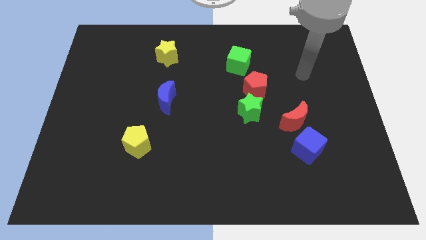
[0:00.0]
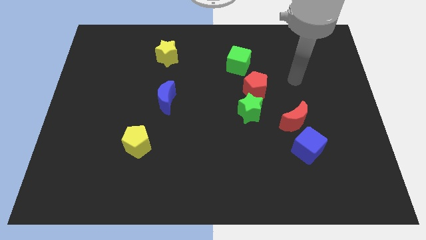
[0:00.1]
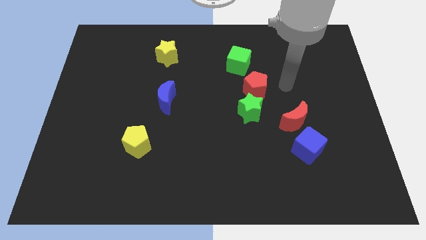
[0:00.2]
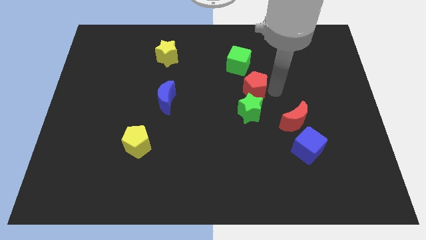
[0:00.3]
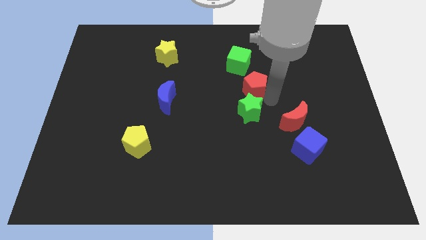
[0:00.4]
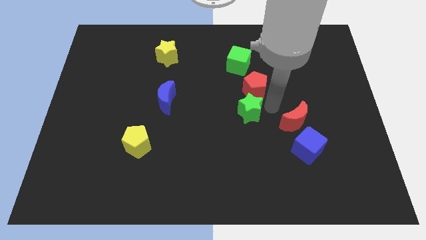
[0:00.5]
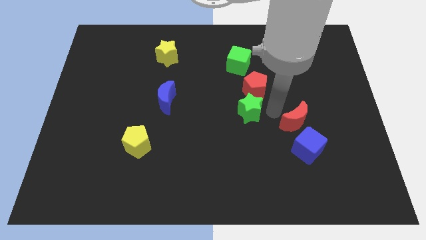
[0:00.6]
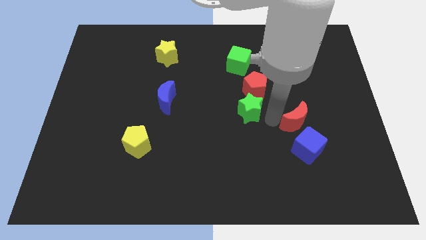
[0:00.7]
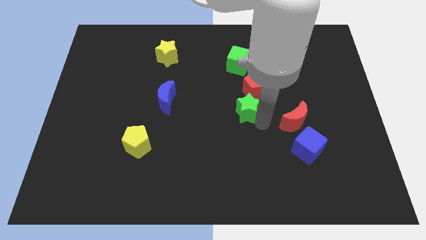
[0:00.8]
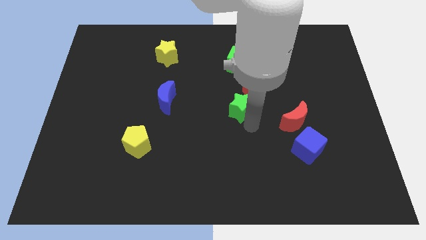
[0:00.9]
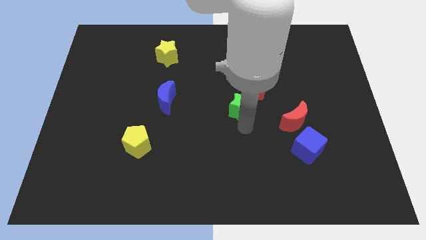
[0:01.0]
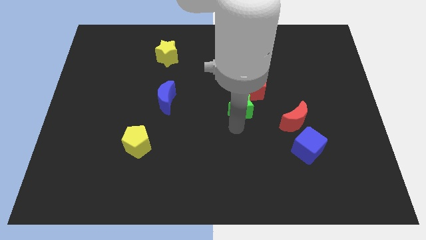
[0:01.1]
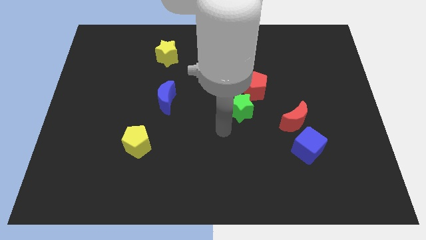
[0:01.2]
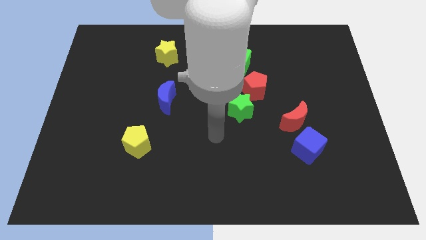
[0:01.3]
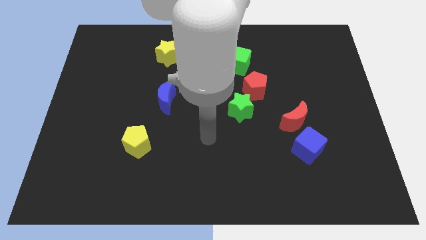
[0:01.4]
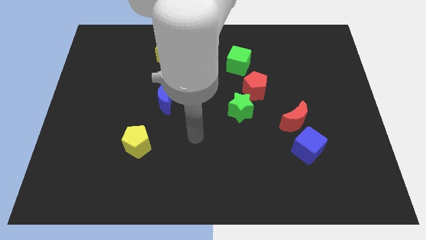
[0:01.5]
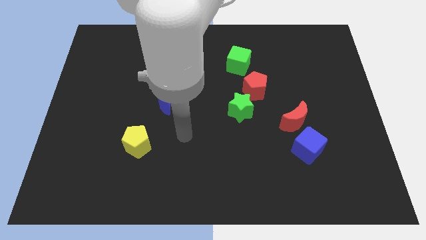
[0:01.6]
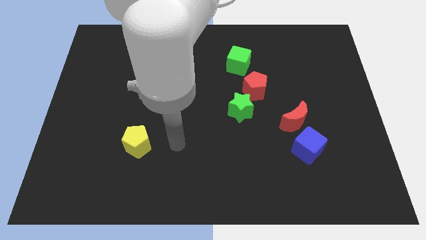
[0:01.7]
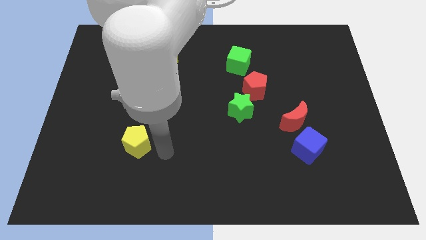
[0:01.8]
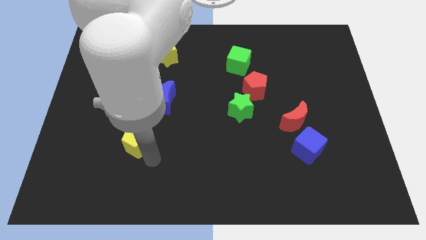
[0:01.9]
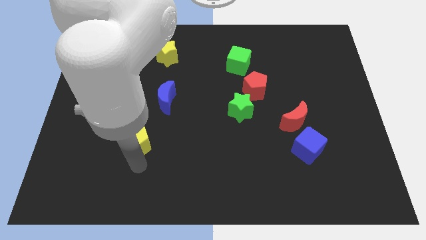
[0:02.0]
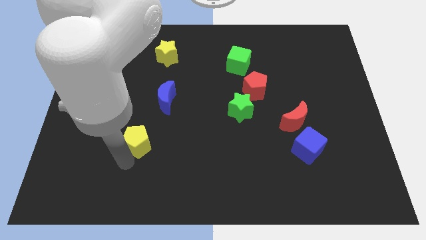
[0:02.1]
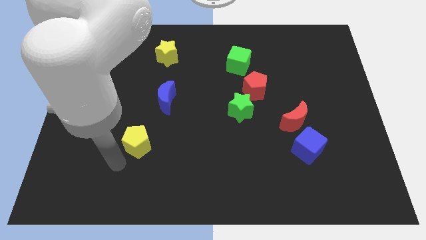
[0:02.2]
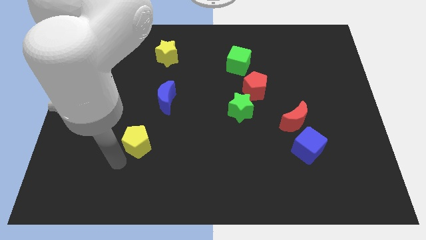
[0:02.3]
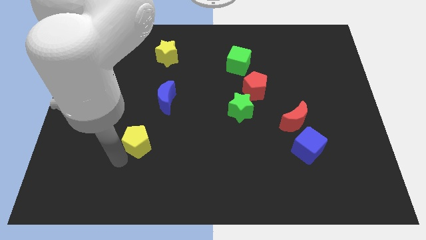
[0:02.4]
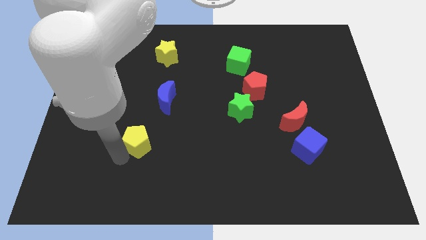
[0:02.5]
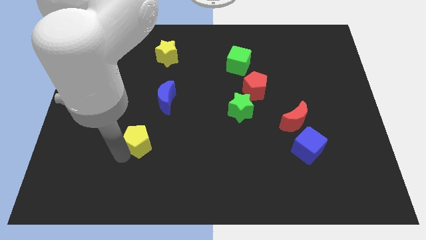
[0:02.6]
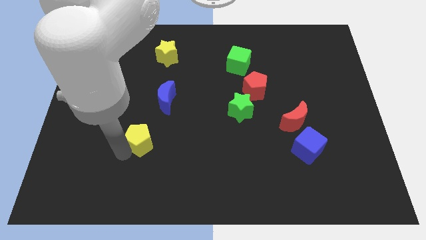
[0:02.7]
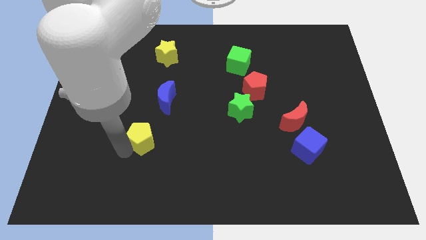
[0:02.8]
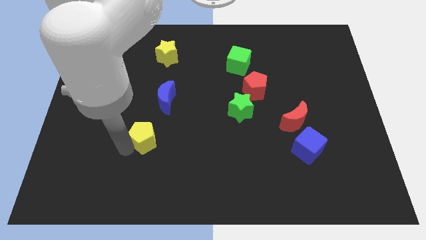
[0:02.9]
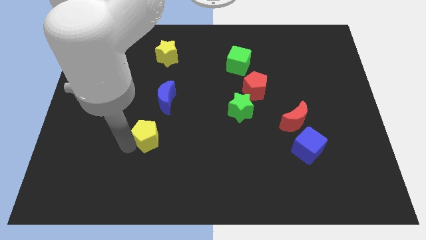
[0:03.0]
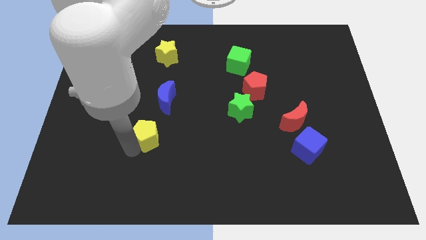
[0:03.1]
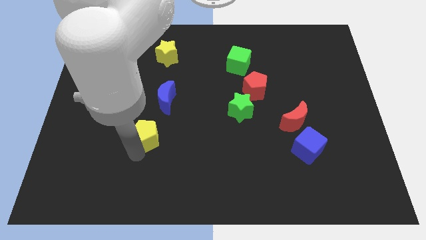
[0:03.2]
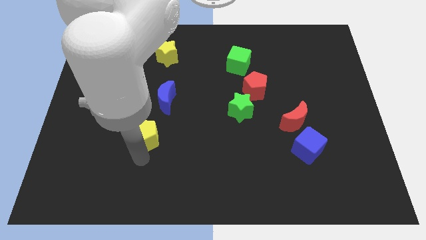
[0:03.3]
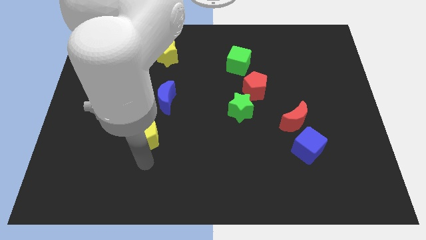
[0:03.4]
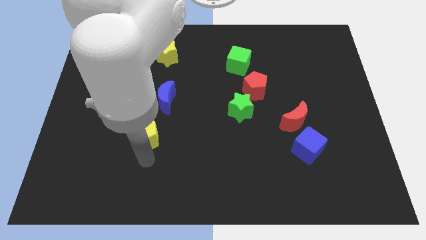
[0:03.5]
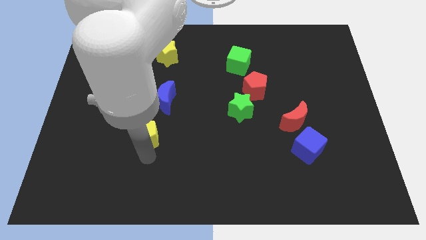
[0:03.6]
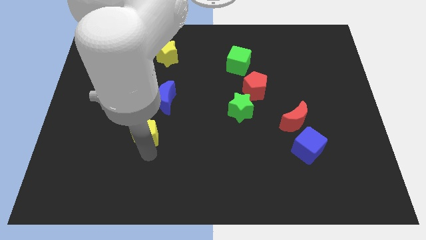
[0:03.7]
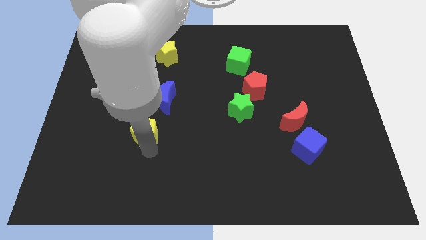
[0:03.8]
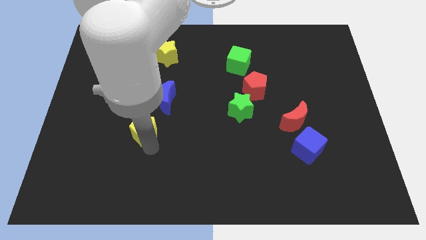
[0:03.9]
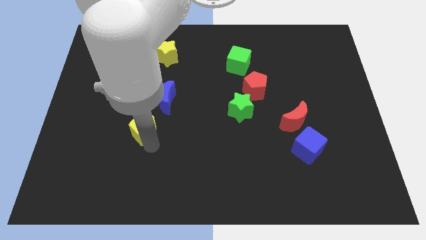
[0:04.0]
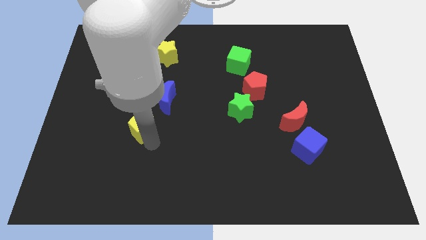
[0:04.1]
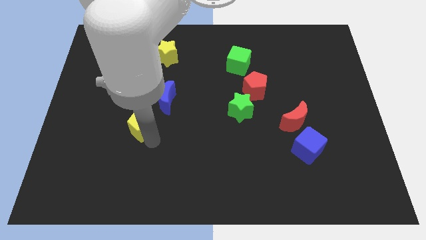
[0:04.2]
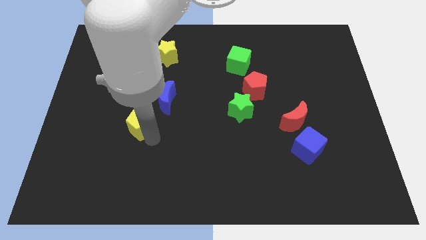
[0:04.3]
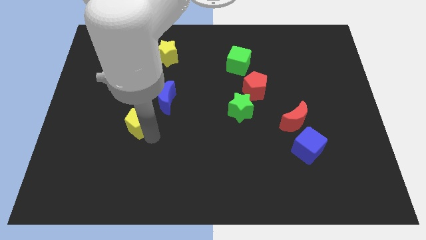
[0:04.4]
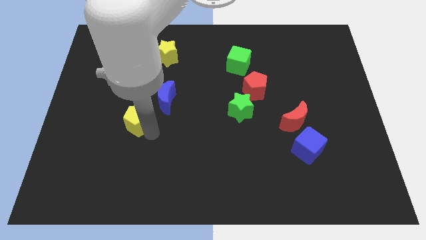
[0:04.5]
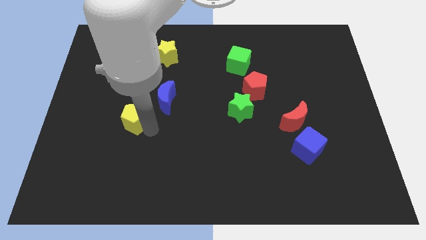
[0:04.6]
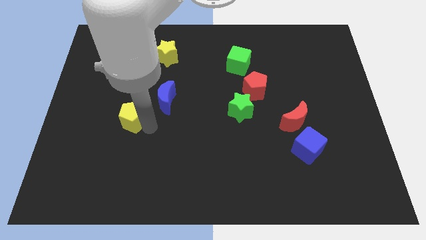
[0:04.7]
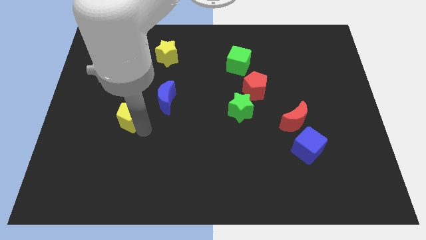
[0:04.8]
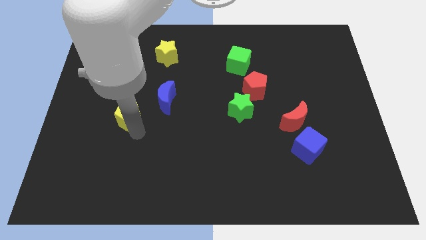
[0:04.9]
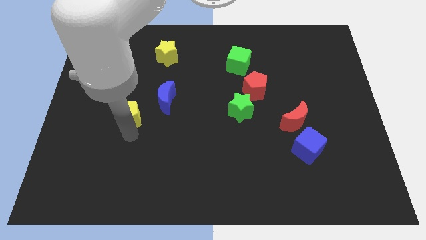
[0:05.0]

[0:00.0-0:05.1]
slightly slide the yellow pentagon upwards

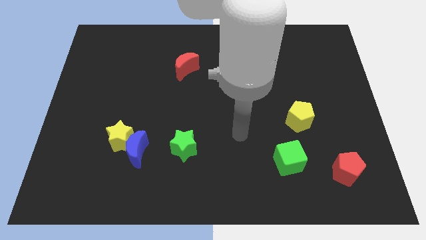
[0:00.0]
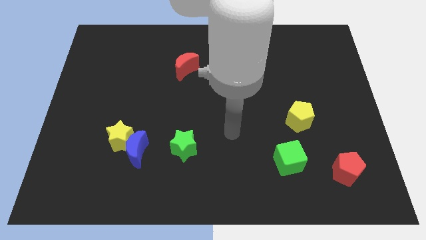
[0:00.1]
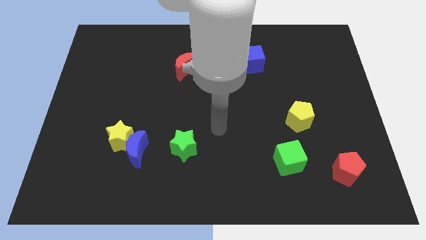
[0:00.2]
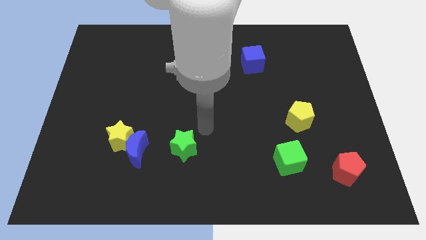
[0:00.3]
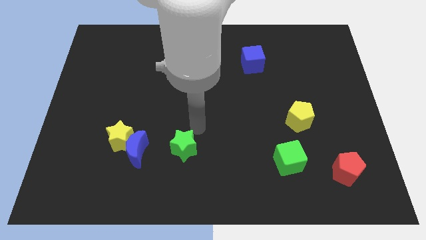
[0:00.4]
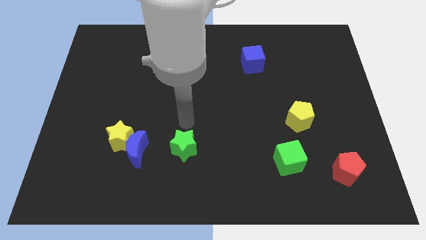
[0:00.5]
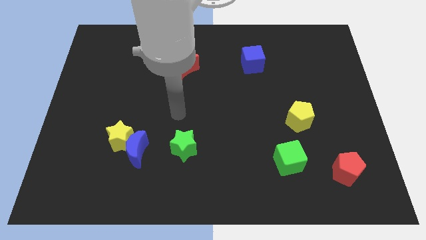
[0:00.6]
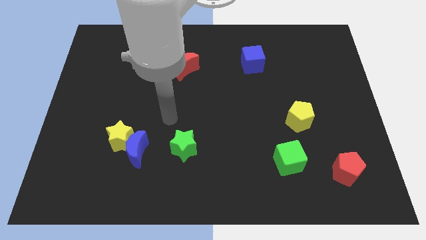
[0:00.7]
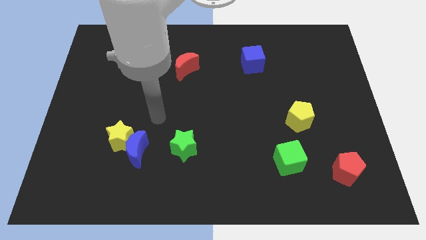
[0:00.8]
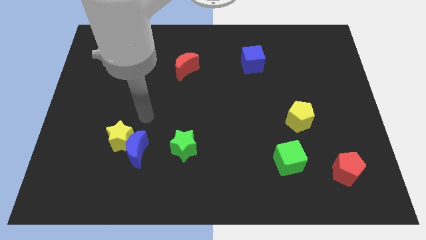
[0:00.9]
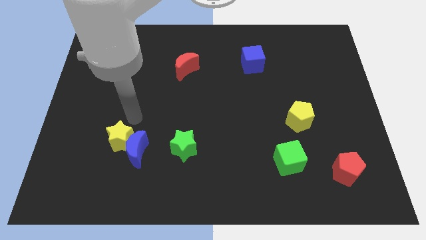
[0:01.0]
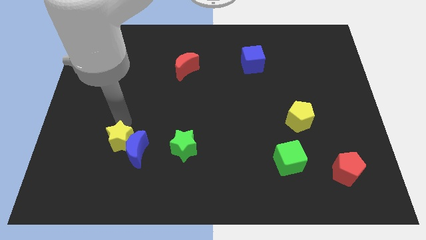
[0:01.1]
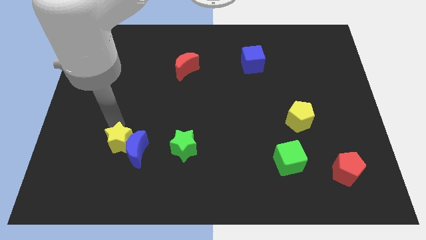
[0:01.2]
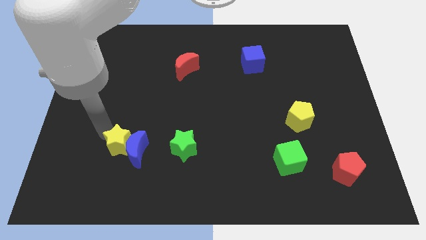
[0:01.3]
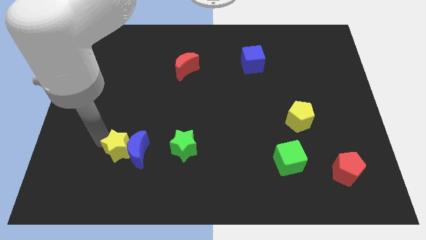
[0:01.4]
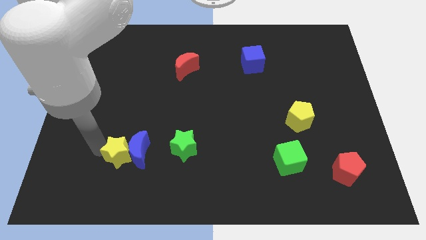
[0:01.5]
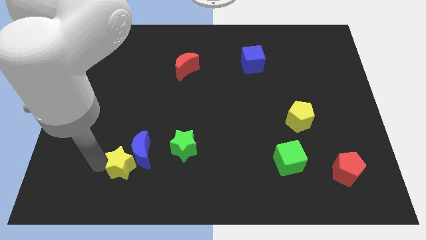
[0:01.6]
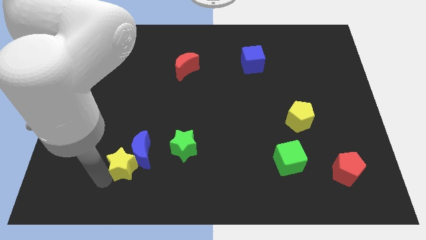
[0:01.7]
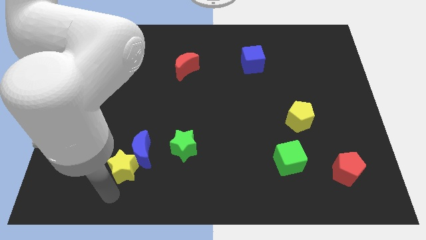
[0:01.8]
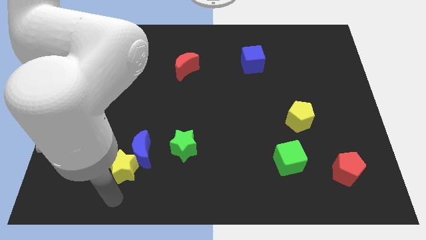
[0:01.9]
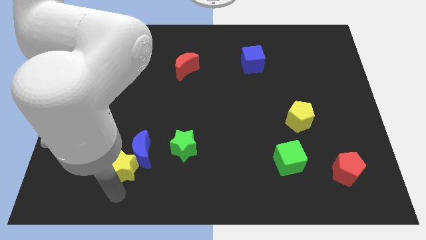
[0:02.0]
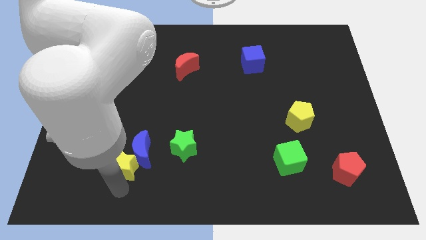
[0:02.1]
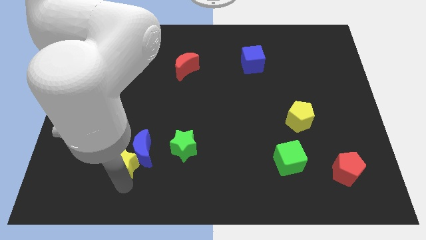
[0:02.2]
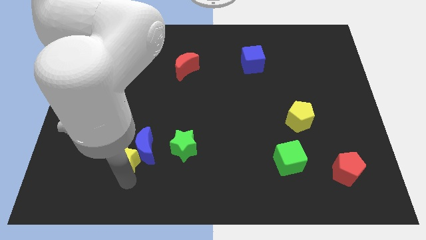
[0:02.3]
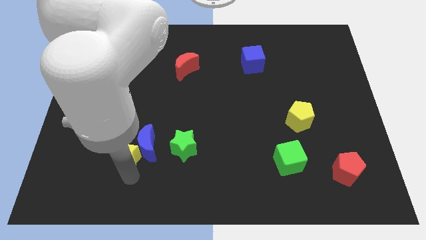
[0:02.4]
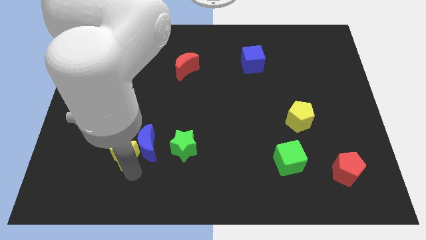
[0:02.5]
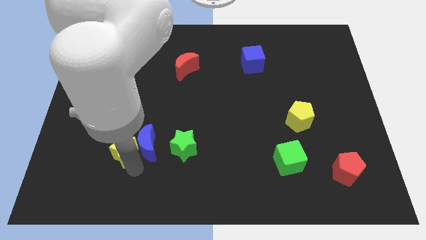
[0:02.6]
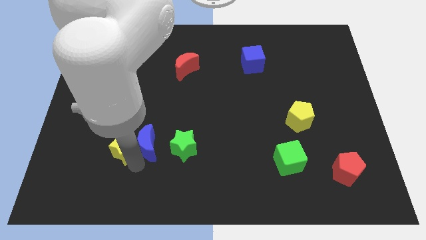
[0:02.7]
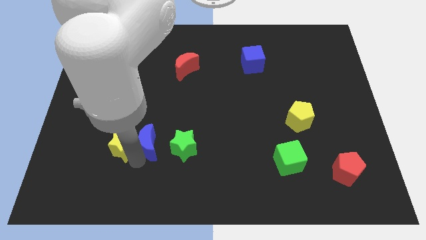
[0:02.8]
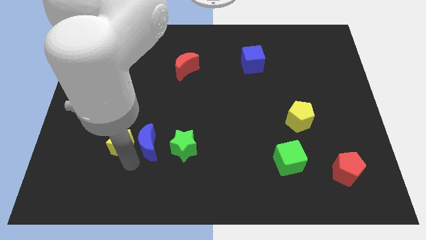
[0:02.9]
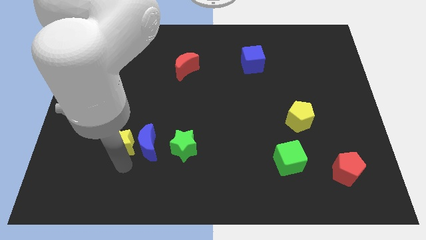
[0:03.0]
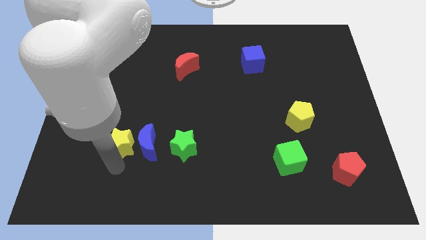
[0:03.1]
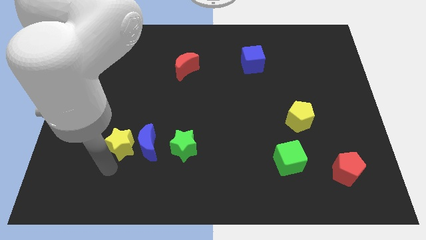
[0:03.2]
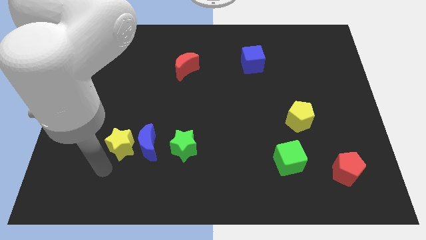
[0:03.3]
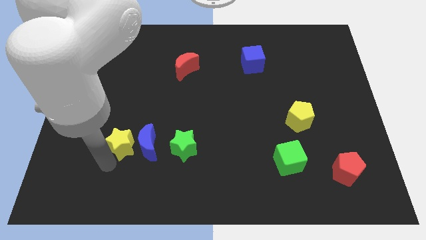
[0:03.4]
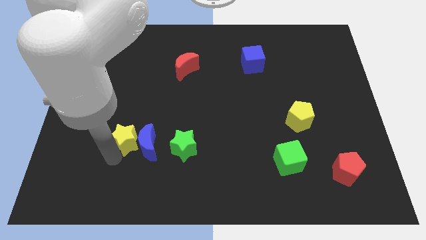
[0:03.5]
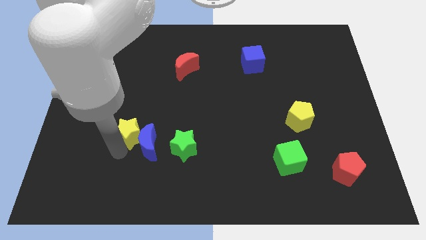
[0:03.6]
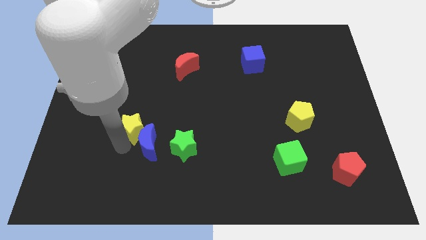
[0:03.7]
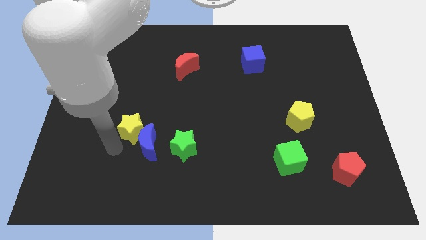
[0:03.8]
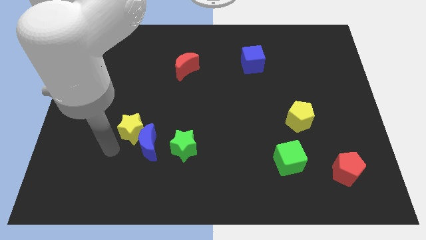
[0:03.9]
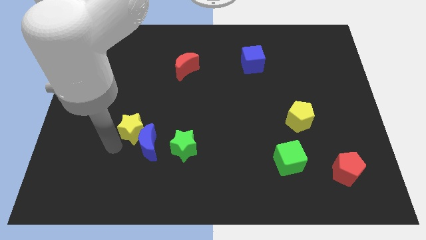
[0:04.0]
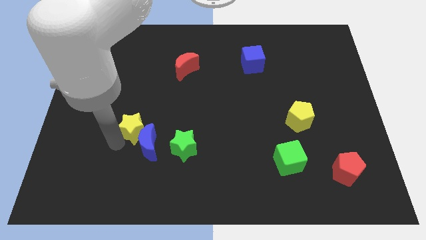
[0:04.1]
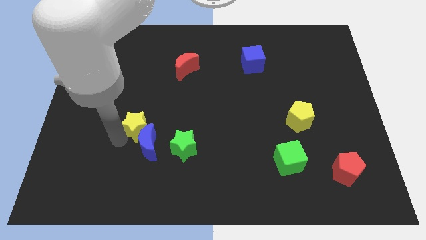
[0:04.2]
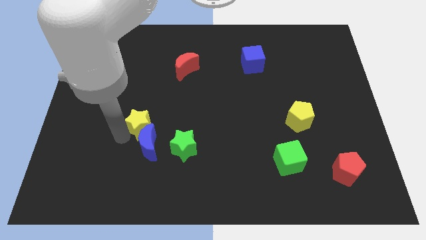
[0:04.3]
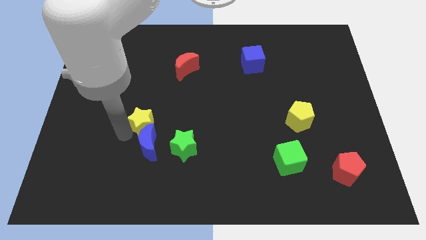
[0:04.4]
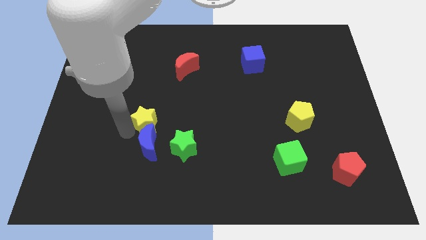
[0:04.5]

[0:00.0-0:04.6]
slide the yellow star up and to the right slightly
